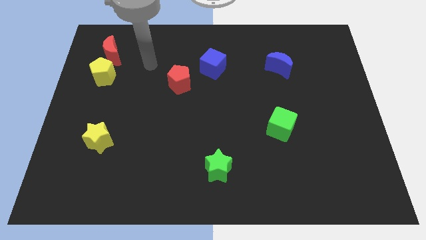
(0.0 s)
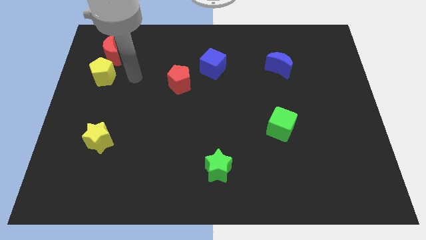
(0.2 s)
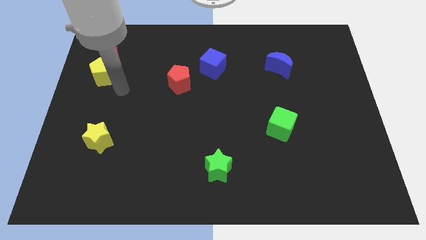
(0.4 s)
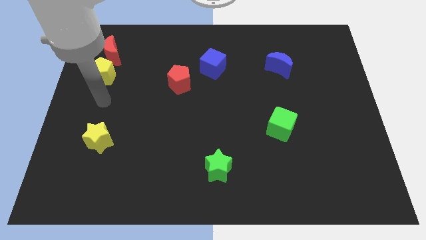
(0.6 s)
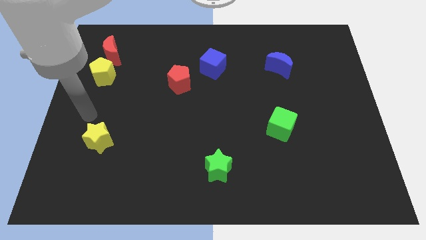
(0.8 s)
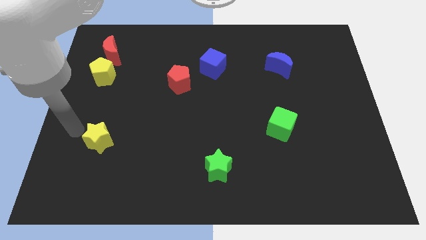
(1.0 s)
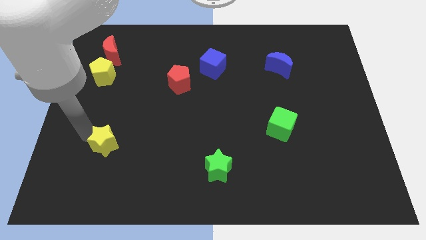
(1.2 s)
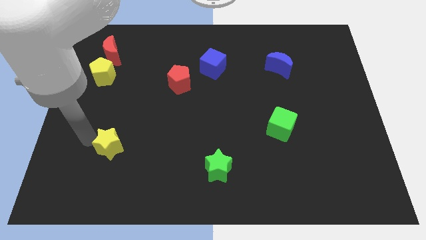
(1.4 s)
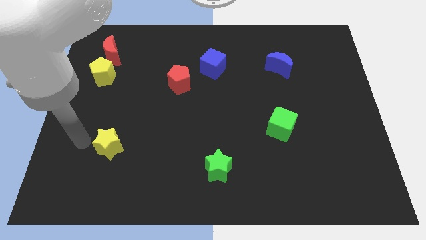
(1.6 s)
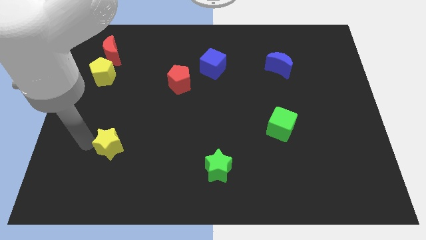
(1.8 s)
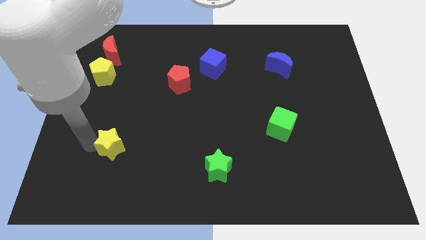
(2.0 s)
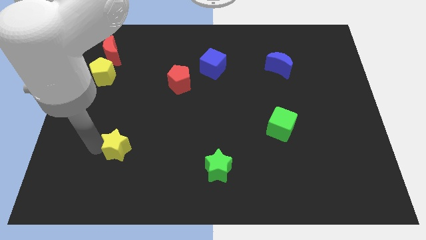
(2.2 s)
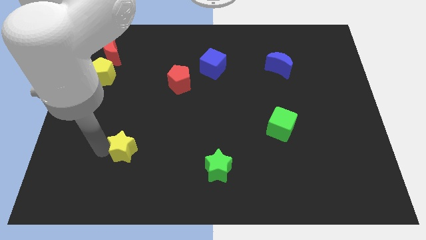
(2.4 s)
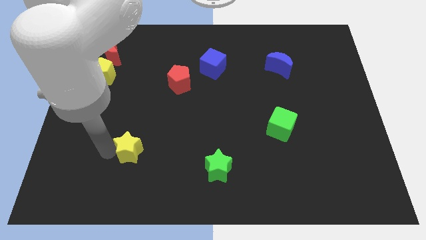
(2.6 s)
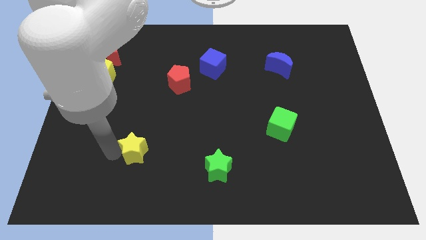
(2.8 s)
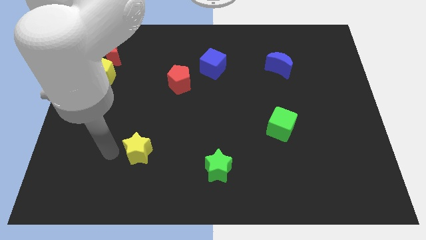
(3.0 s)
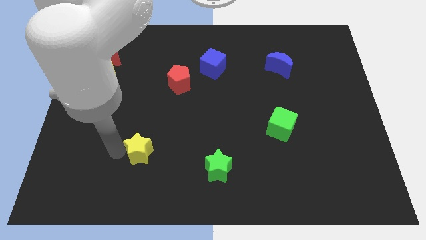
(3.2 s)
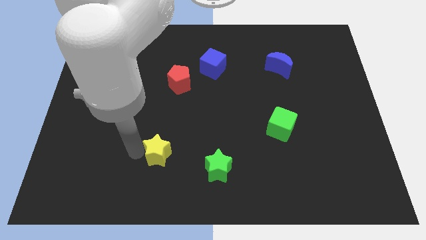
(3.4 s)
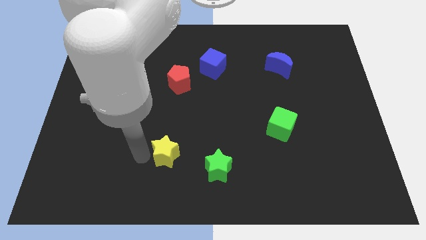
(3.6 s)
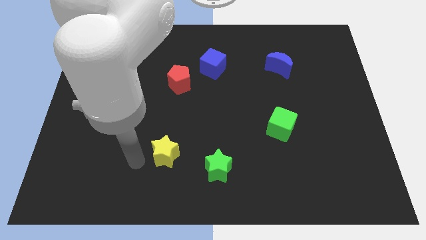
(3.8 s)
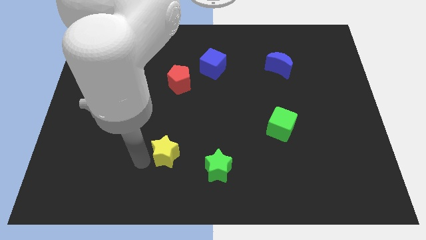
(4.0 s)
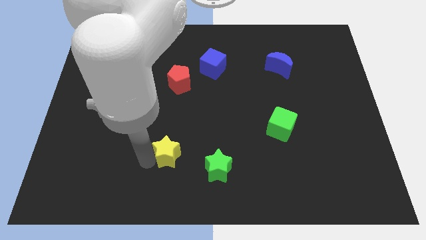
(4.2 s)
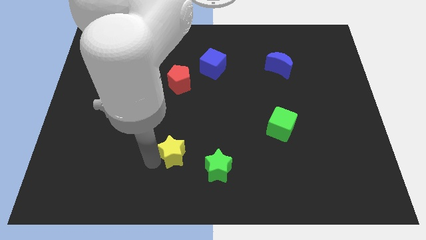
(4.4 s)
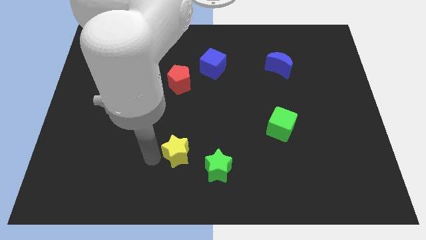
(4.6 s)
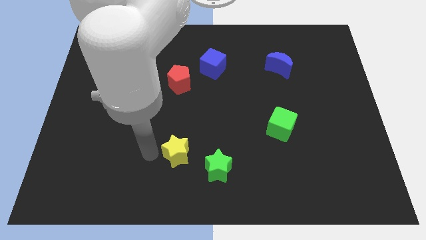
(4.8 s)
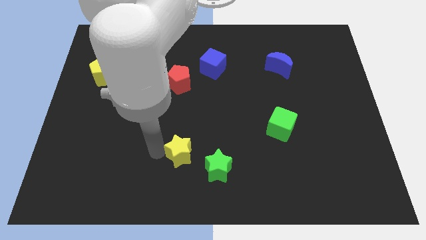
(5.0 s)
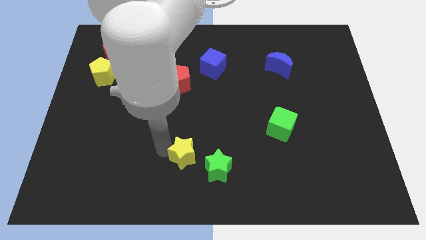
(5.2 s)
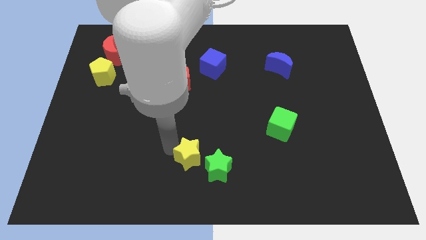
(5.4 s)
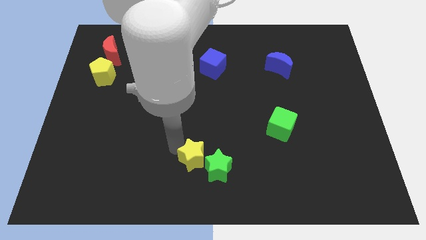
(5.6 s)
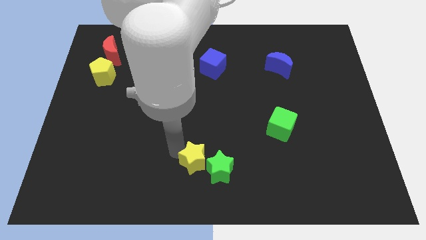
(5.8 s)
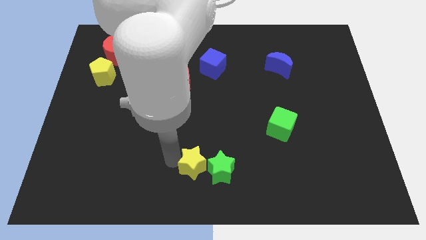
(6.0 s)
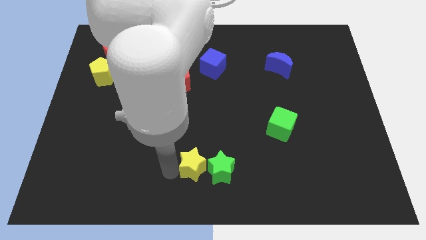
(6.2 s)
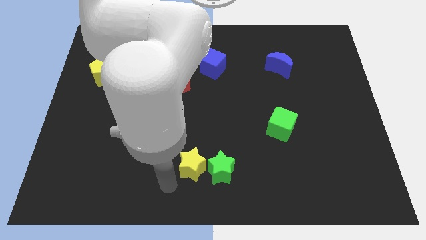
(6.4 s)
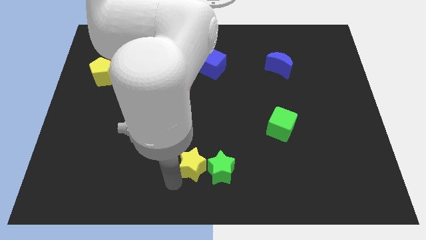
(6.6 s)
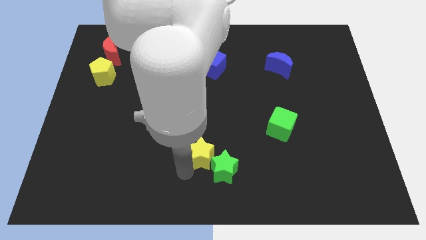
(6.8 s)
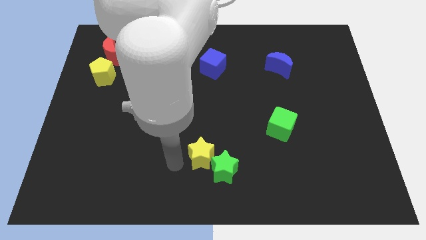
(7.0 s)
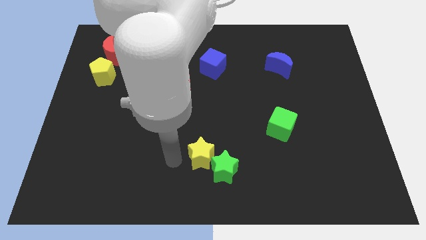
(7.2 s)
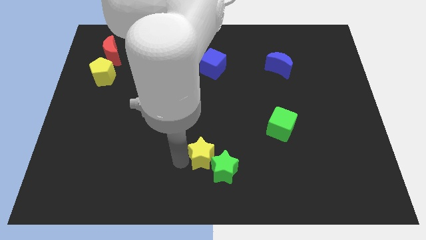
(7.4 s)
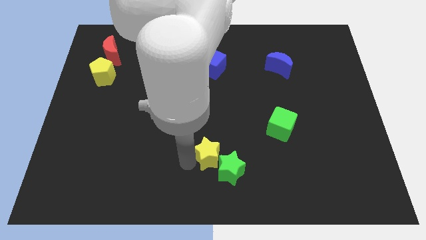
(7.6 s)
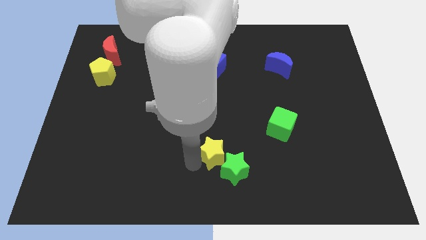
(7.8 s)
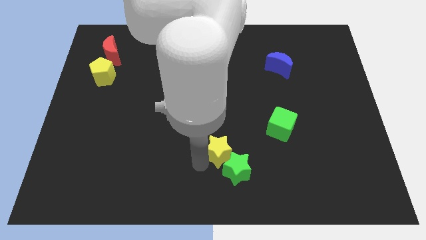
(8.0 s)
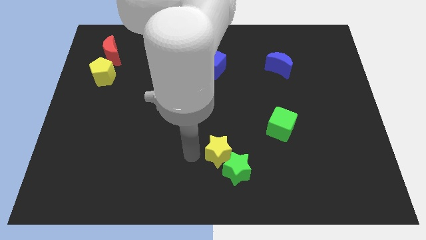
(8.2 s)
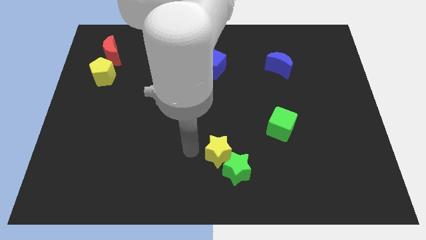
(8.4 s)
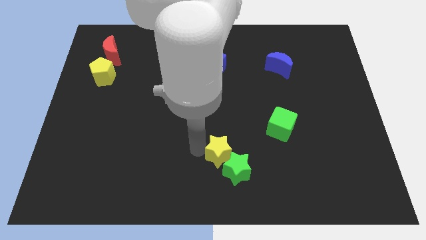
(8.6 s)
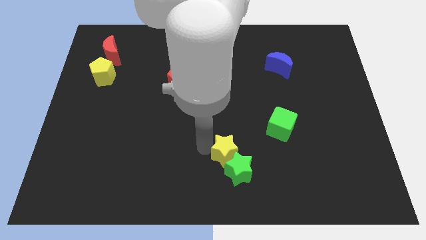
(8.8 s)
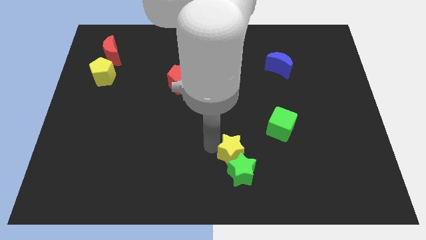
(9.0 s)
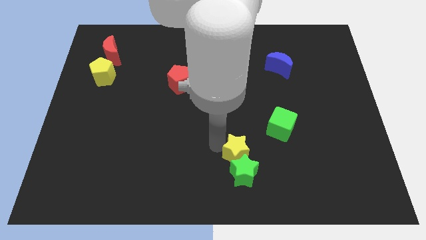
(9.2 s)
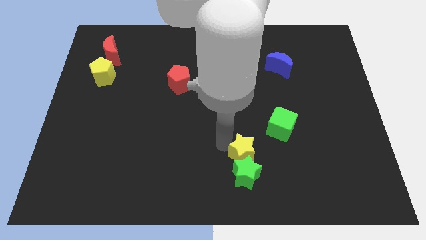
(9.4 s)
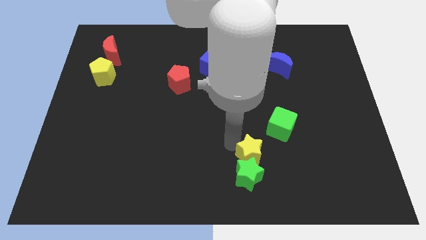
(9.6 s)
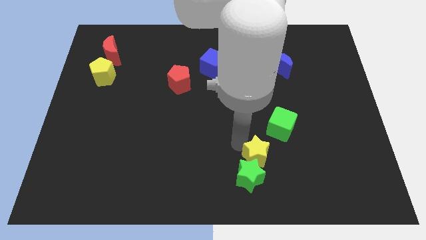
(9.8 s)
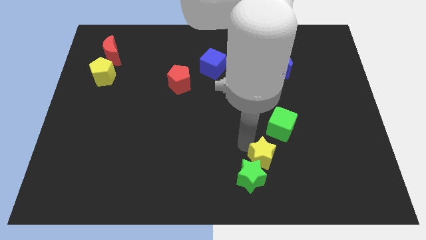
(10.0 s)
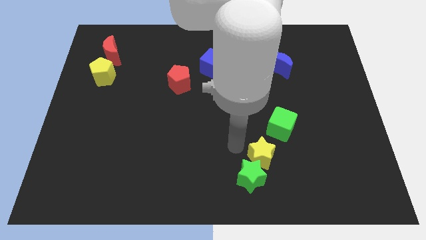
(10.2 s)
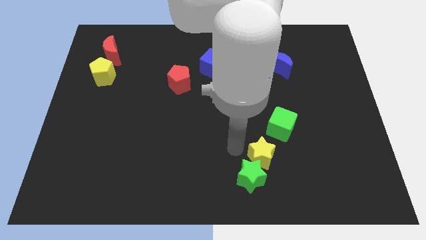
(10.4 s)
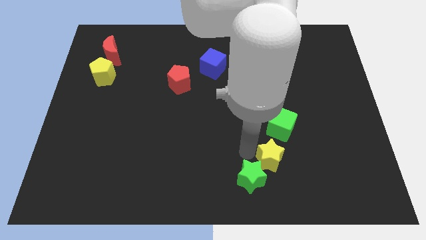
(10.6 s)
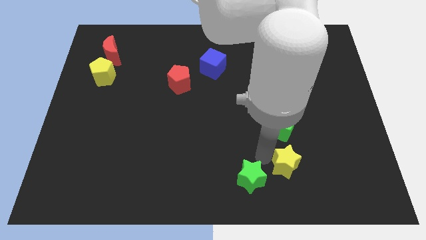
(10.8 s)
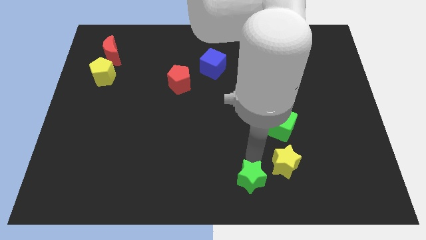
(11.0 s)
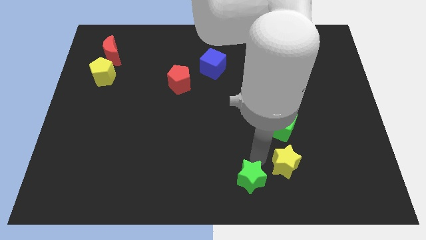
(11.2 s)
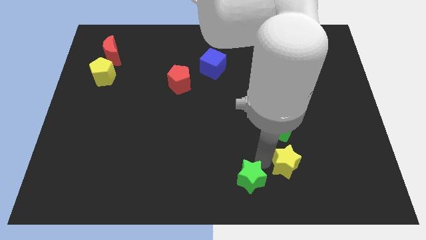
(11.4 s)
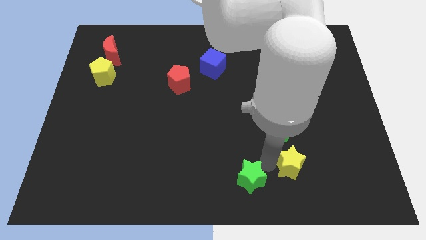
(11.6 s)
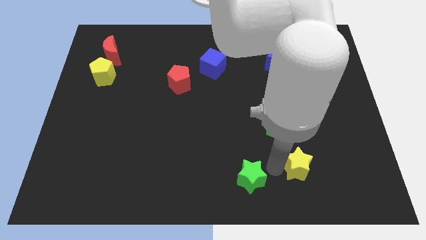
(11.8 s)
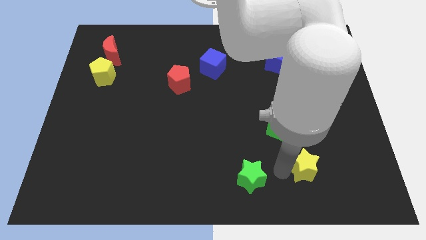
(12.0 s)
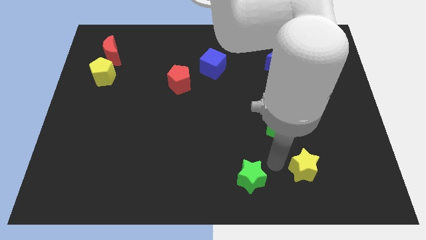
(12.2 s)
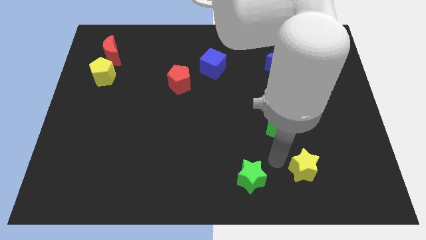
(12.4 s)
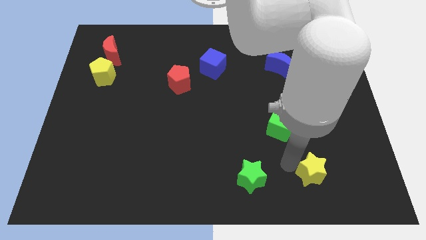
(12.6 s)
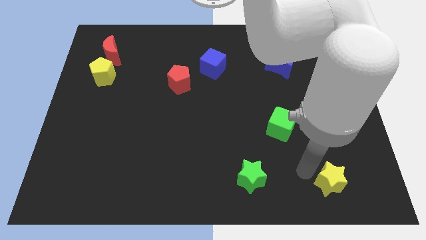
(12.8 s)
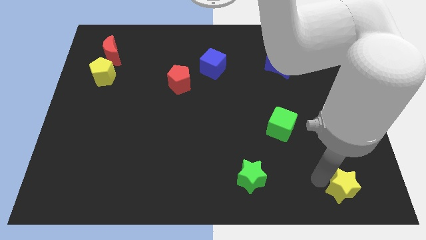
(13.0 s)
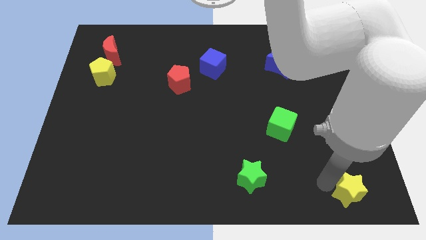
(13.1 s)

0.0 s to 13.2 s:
put the yellow star to the bottom right
